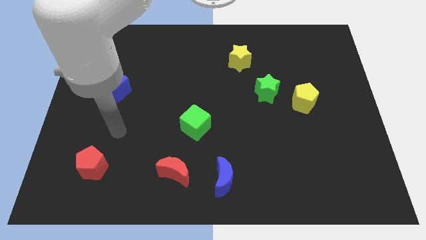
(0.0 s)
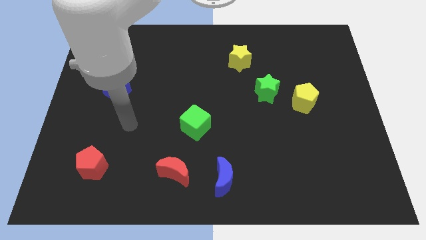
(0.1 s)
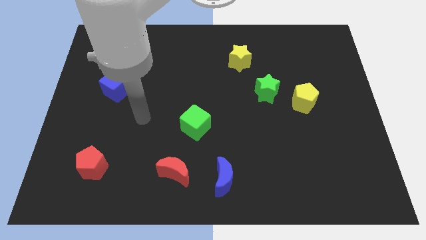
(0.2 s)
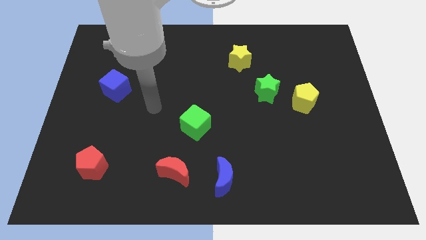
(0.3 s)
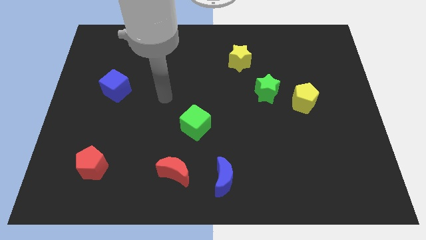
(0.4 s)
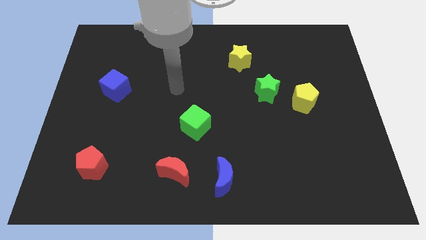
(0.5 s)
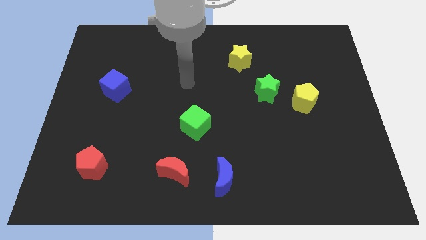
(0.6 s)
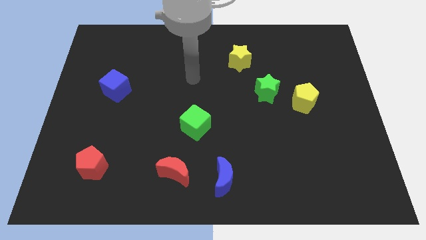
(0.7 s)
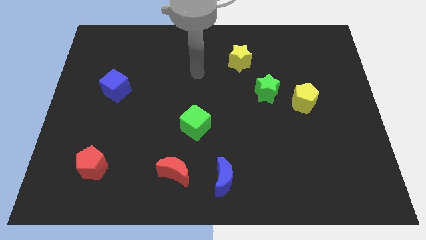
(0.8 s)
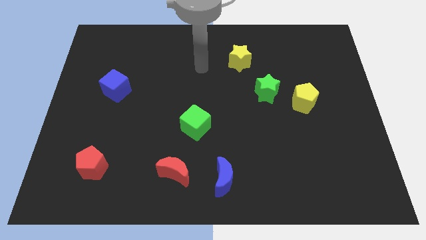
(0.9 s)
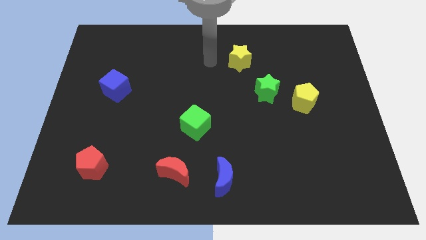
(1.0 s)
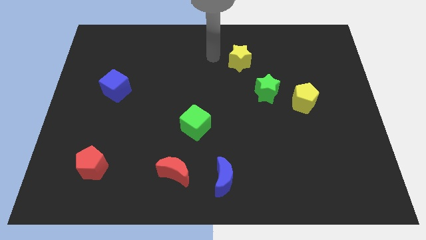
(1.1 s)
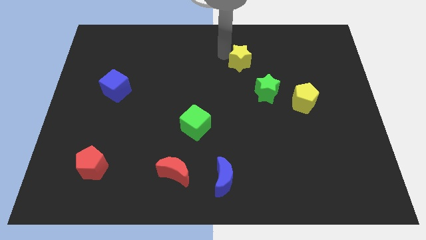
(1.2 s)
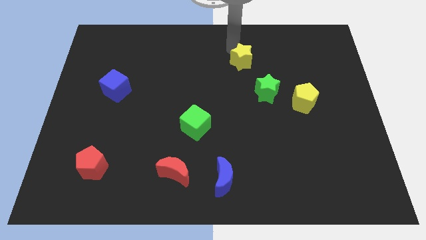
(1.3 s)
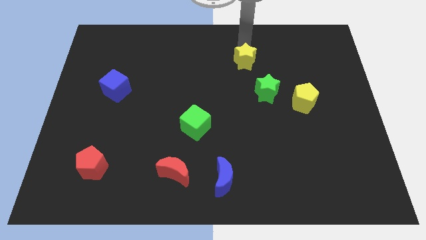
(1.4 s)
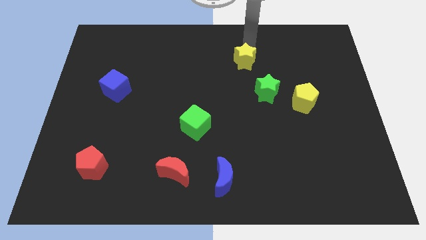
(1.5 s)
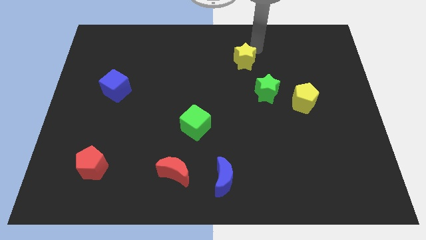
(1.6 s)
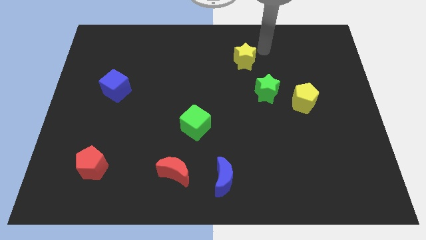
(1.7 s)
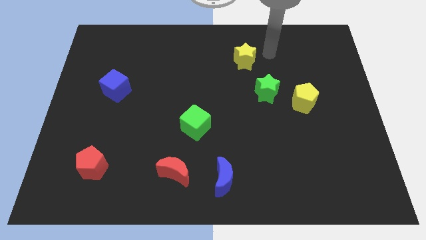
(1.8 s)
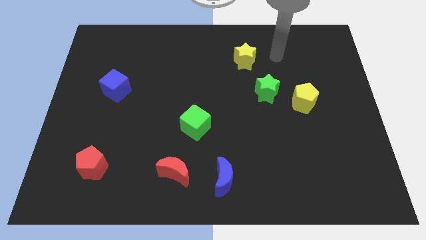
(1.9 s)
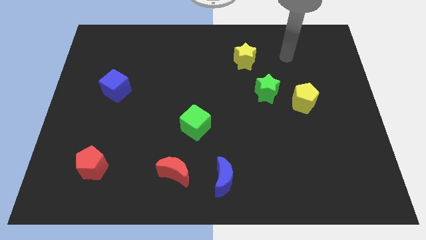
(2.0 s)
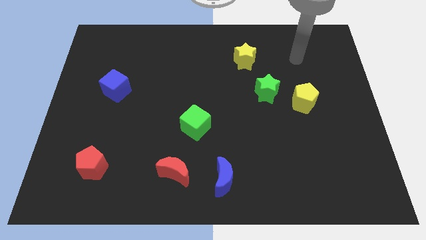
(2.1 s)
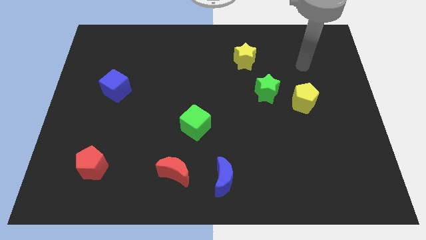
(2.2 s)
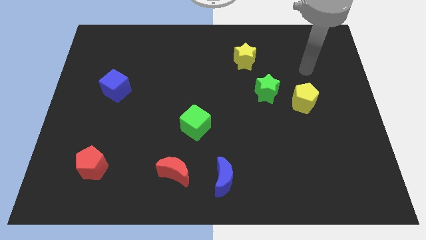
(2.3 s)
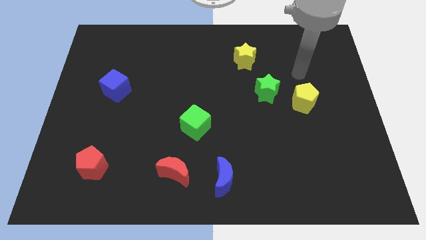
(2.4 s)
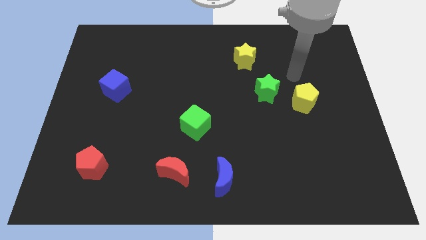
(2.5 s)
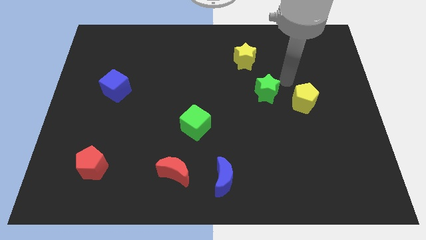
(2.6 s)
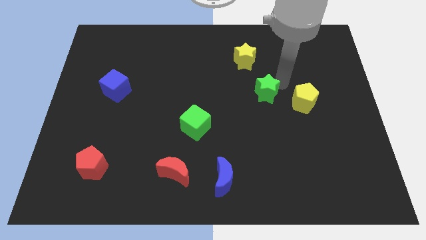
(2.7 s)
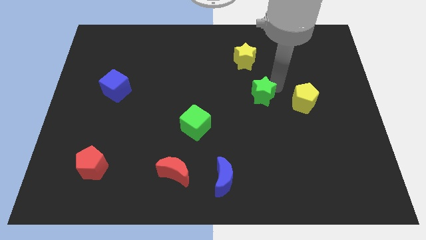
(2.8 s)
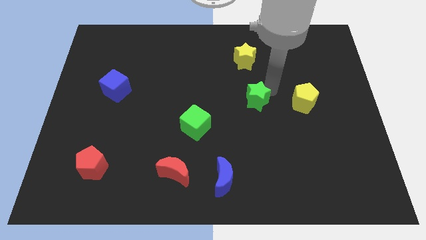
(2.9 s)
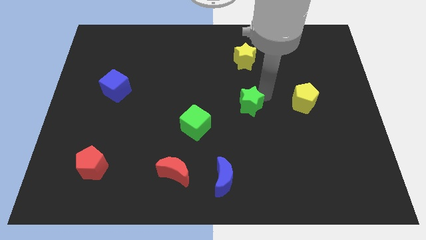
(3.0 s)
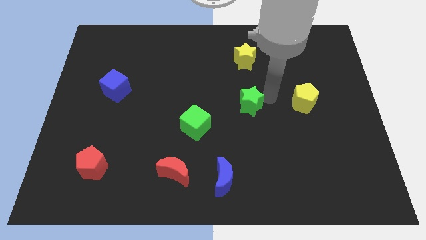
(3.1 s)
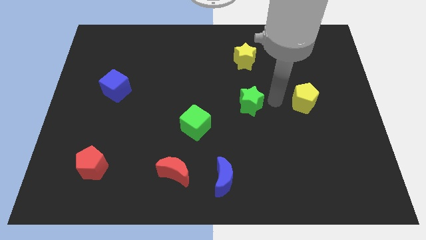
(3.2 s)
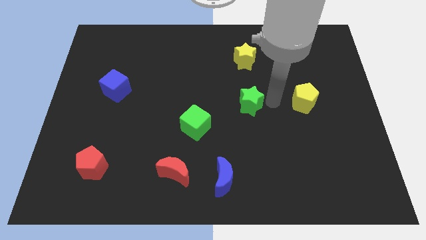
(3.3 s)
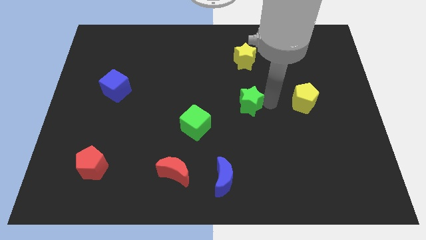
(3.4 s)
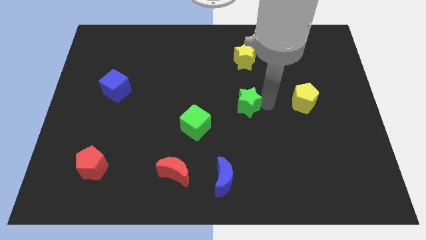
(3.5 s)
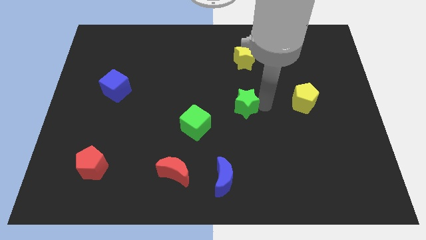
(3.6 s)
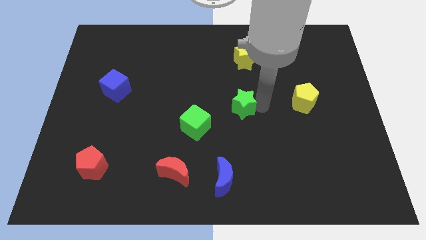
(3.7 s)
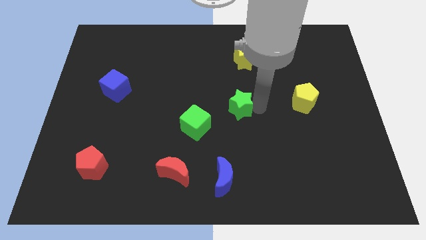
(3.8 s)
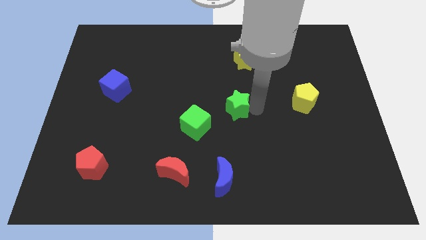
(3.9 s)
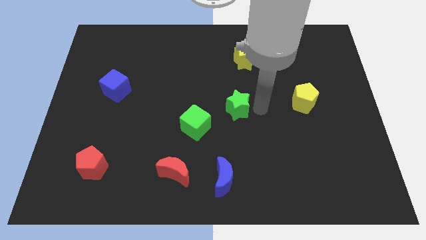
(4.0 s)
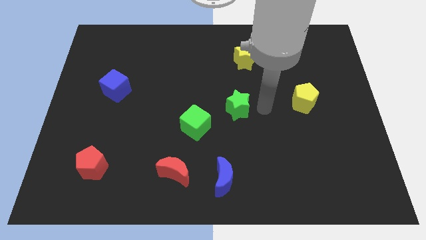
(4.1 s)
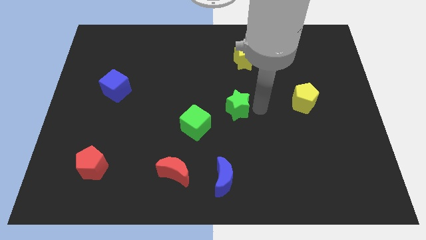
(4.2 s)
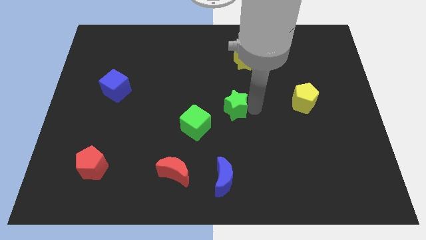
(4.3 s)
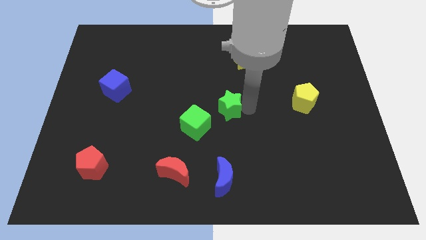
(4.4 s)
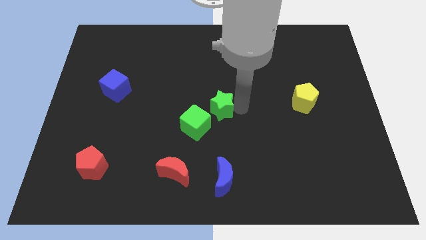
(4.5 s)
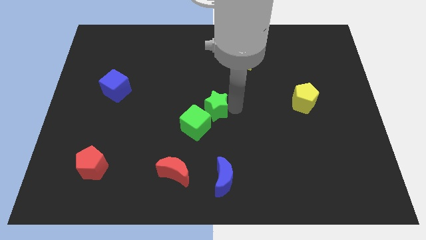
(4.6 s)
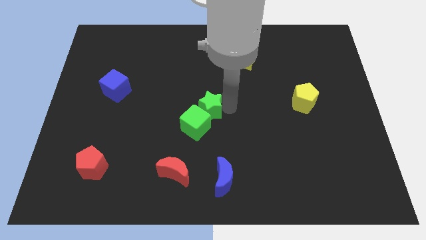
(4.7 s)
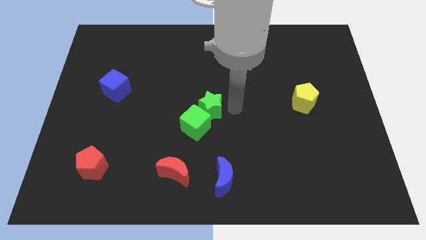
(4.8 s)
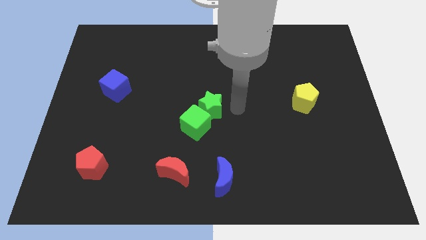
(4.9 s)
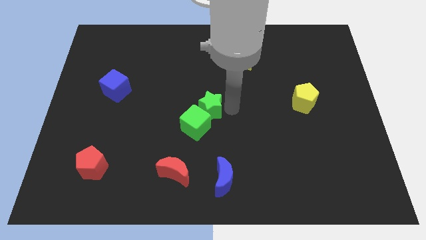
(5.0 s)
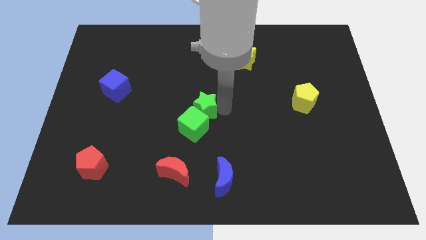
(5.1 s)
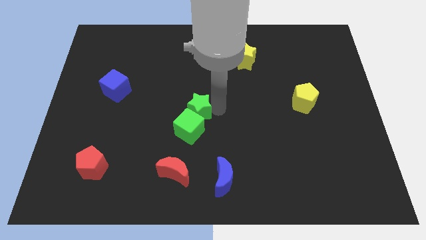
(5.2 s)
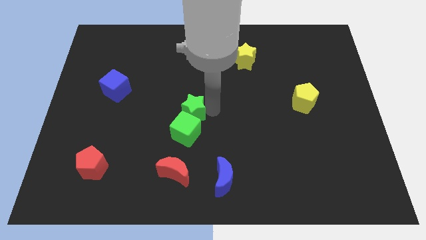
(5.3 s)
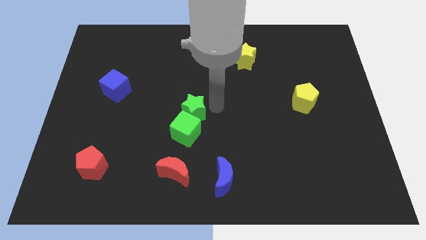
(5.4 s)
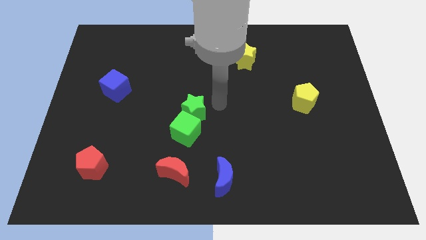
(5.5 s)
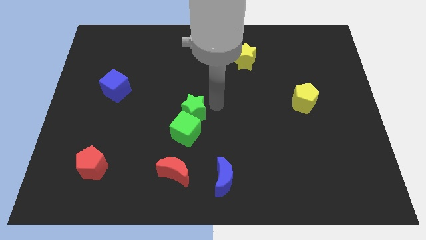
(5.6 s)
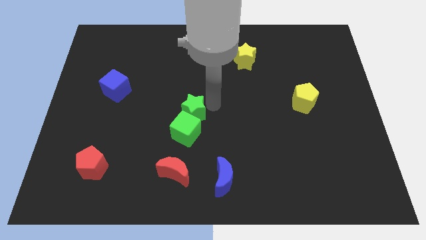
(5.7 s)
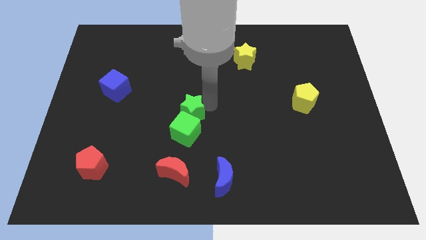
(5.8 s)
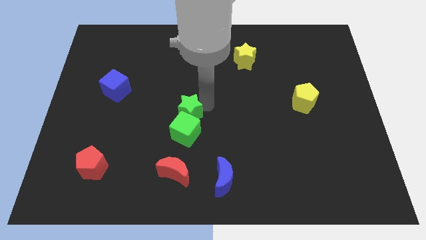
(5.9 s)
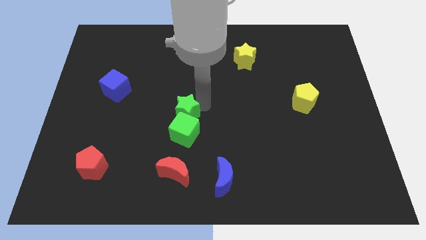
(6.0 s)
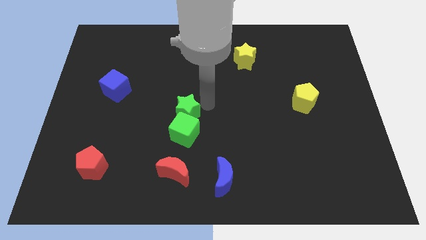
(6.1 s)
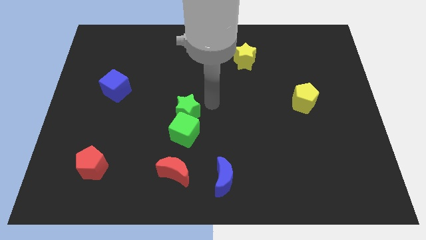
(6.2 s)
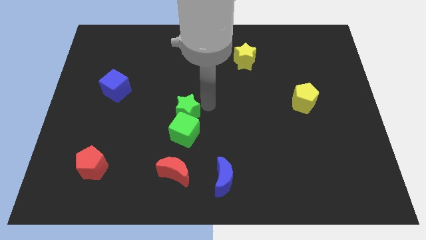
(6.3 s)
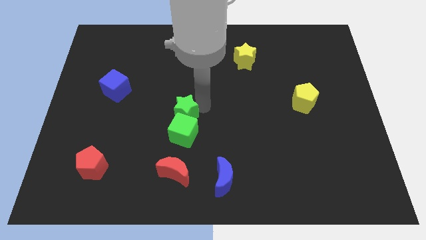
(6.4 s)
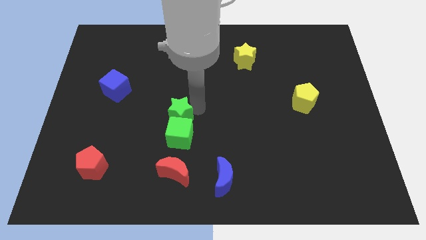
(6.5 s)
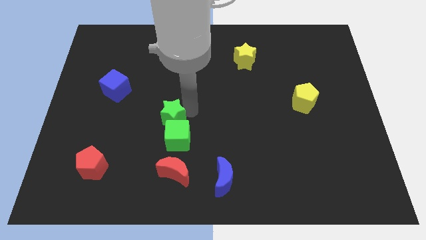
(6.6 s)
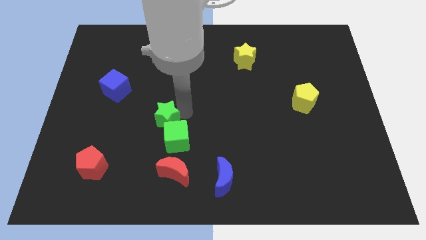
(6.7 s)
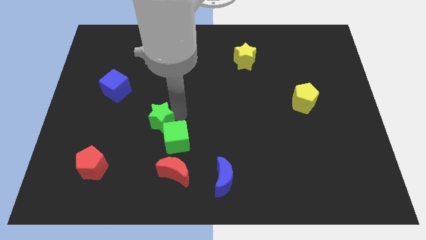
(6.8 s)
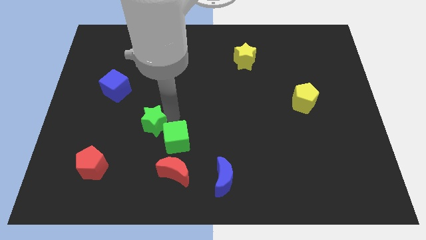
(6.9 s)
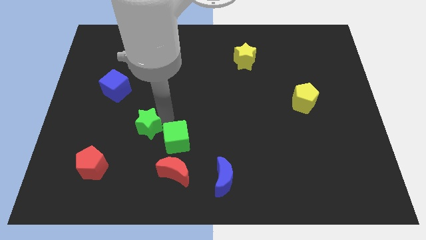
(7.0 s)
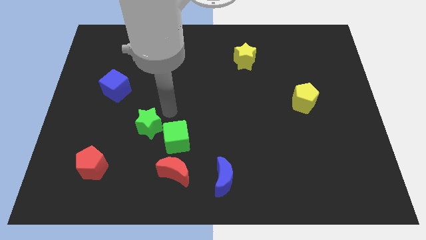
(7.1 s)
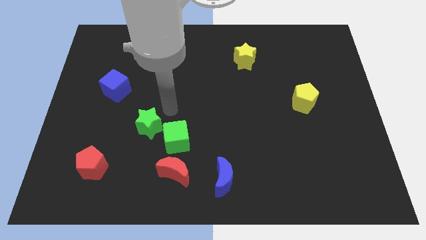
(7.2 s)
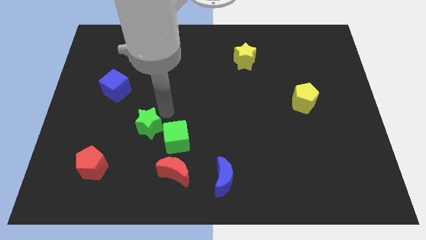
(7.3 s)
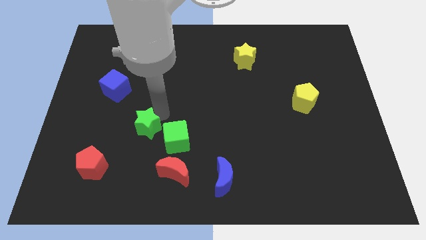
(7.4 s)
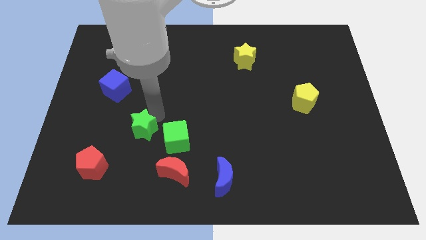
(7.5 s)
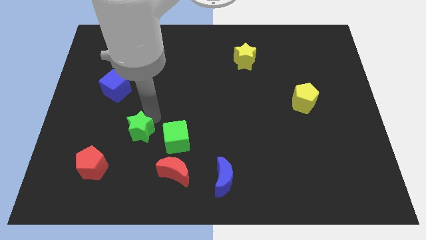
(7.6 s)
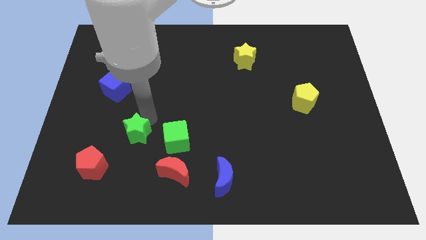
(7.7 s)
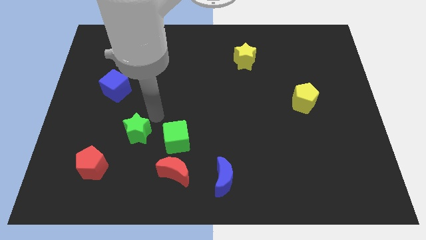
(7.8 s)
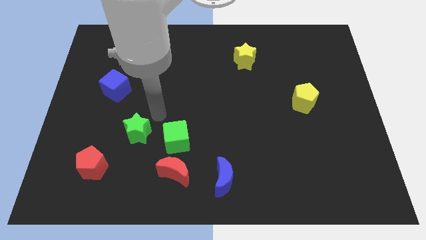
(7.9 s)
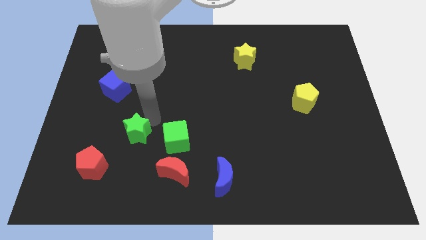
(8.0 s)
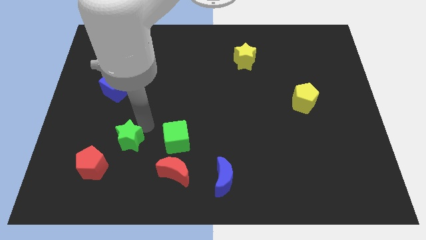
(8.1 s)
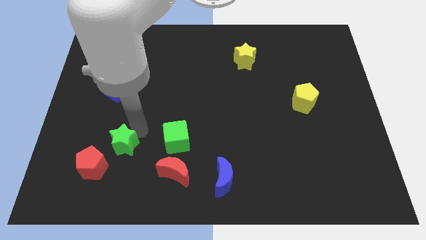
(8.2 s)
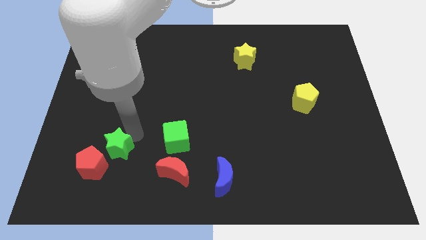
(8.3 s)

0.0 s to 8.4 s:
move the green star towards the red pentagon
